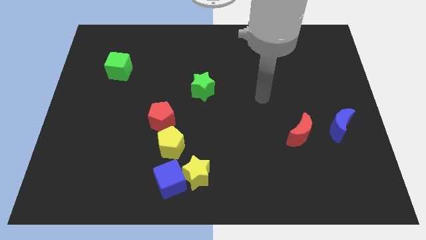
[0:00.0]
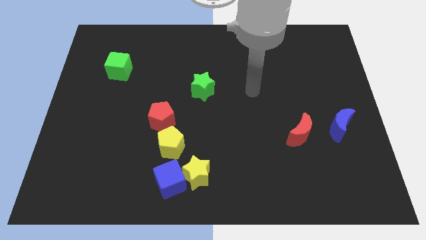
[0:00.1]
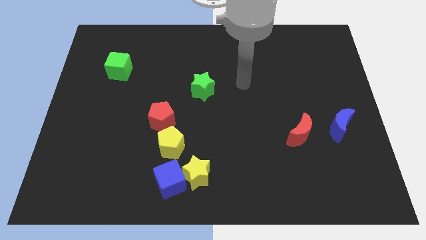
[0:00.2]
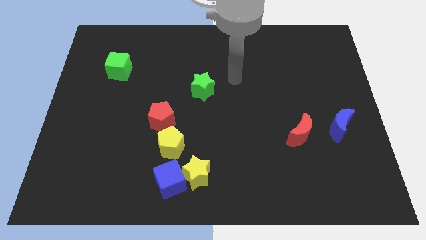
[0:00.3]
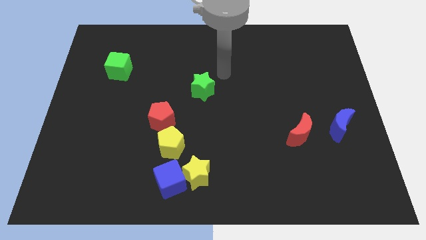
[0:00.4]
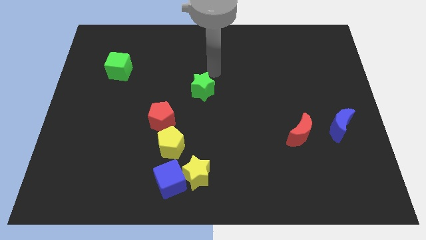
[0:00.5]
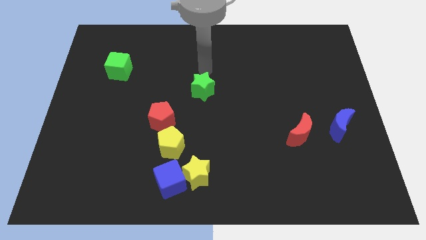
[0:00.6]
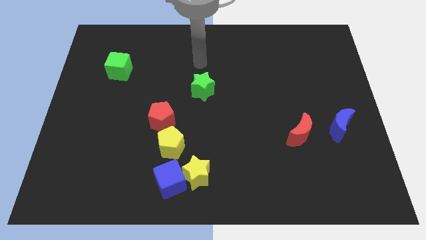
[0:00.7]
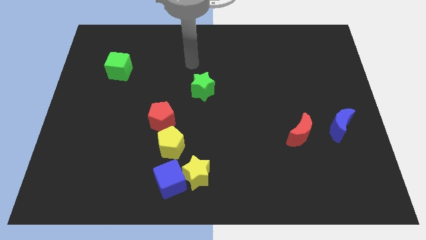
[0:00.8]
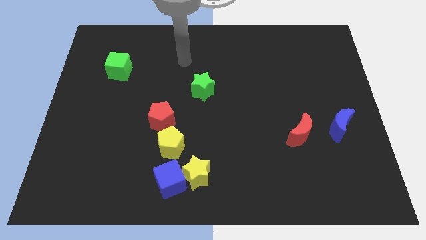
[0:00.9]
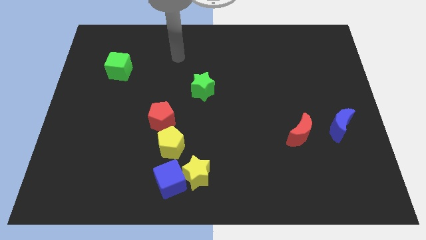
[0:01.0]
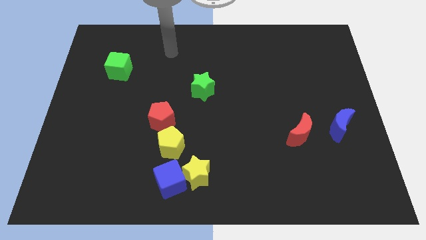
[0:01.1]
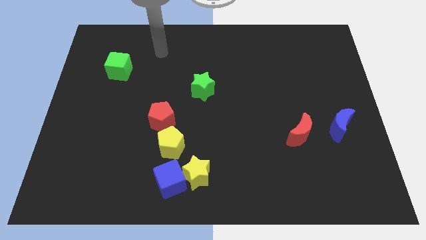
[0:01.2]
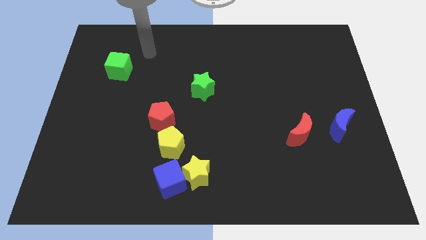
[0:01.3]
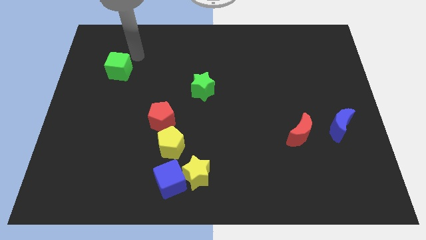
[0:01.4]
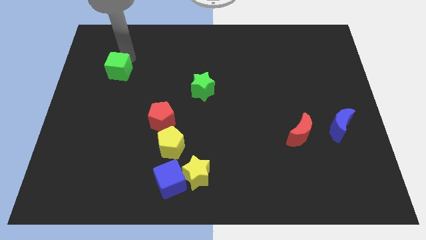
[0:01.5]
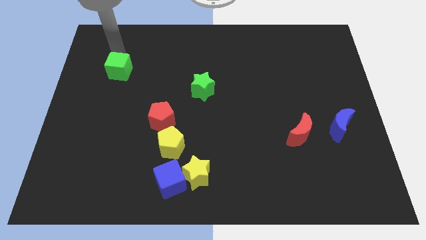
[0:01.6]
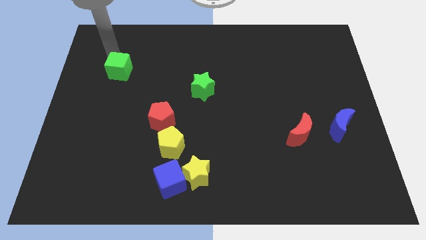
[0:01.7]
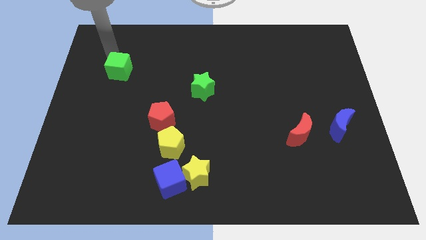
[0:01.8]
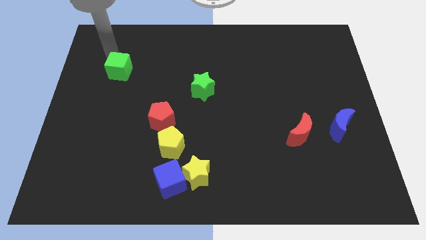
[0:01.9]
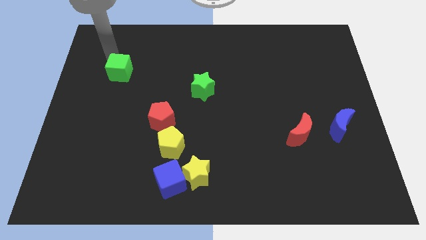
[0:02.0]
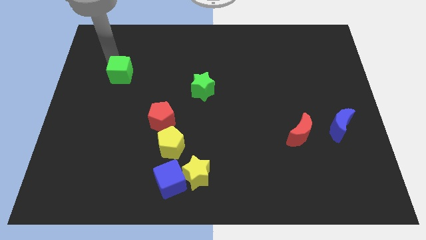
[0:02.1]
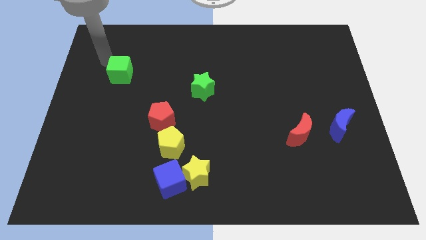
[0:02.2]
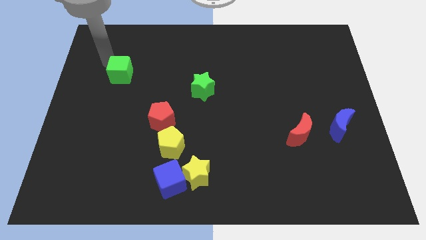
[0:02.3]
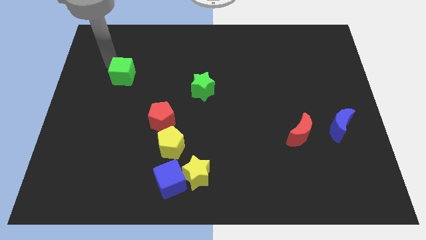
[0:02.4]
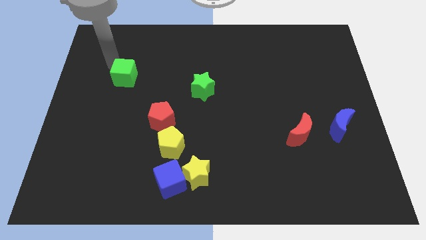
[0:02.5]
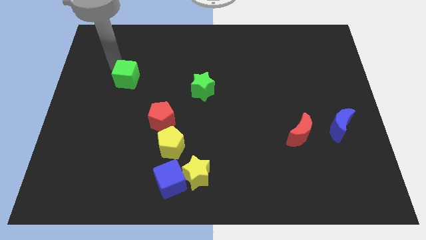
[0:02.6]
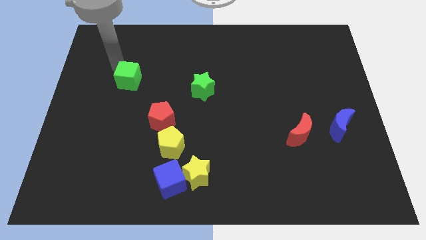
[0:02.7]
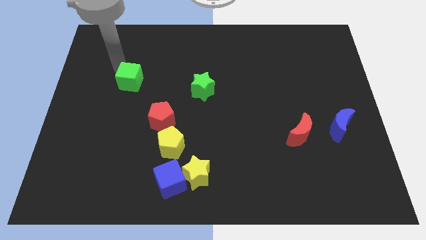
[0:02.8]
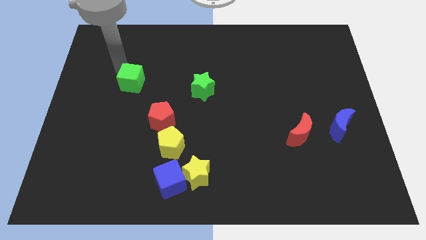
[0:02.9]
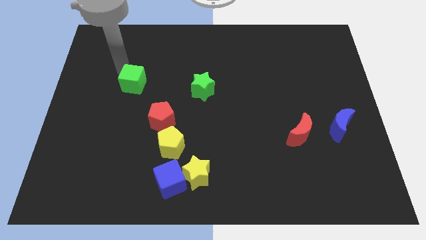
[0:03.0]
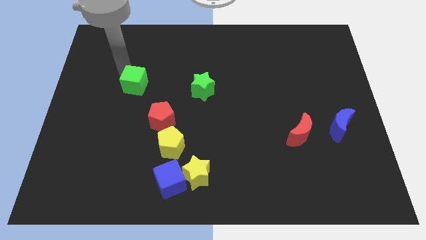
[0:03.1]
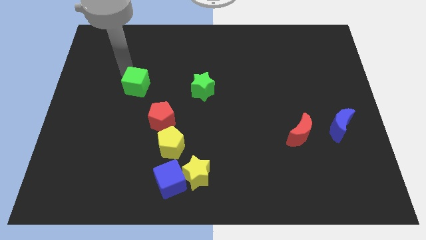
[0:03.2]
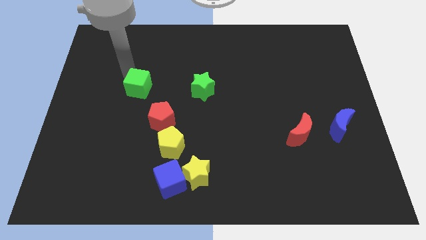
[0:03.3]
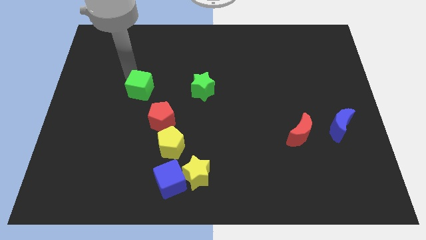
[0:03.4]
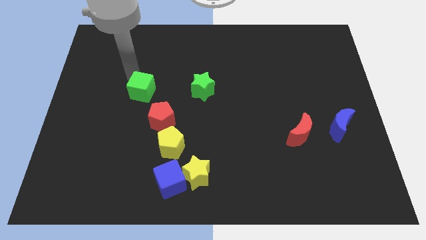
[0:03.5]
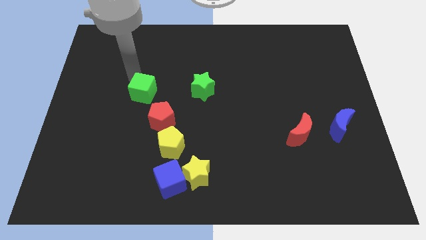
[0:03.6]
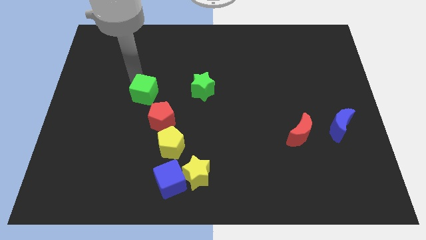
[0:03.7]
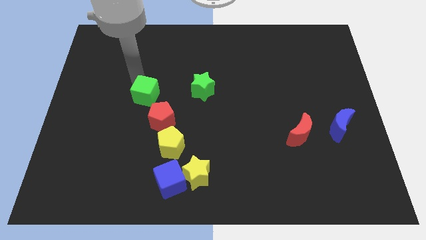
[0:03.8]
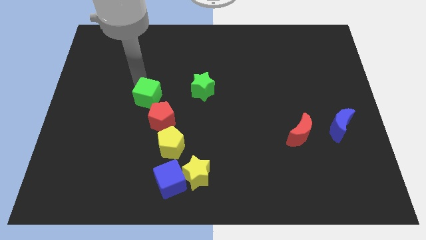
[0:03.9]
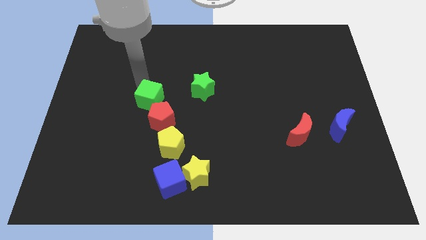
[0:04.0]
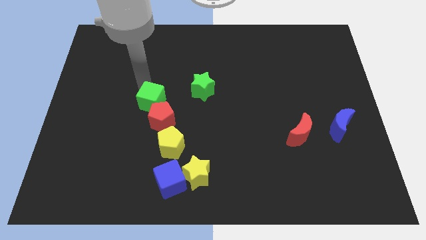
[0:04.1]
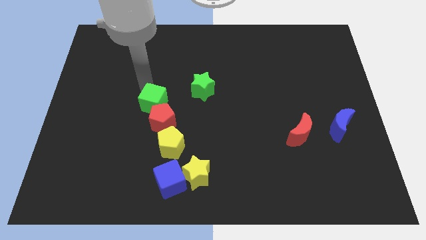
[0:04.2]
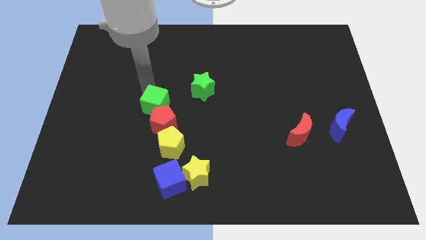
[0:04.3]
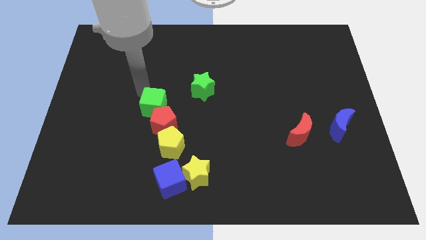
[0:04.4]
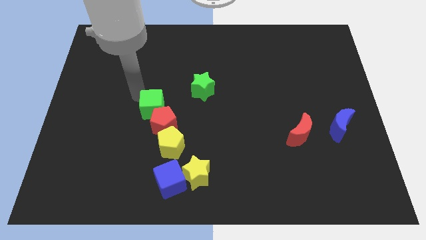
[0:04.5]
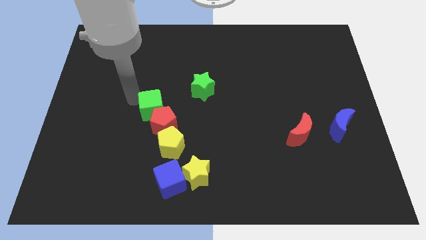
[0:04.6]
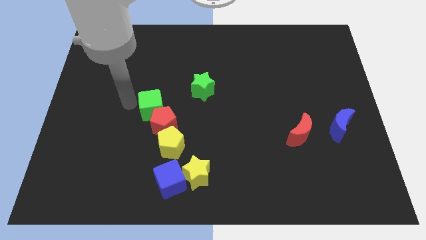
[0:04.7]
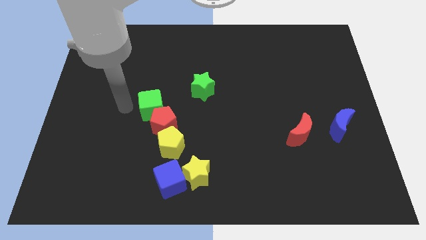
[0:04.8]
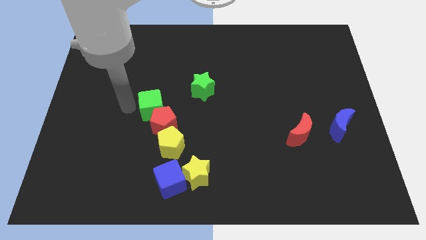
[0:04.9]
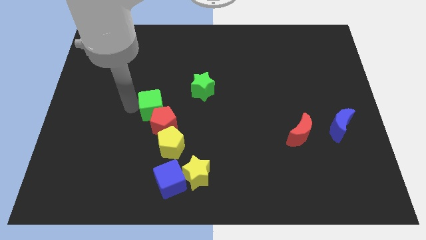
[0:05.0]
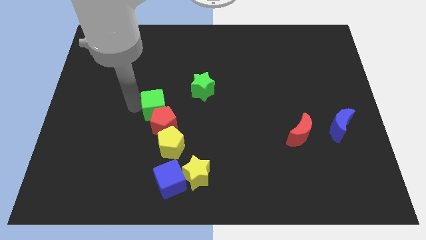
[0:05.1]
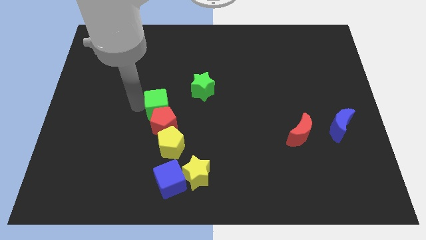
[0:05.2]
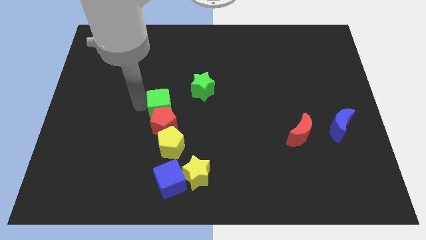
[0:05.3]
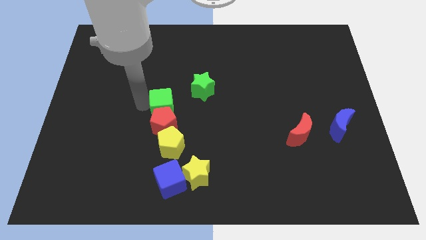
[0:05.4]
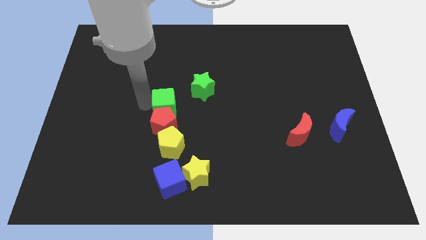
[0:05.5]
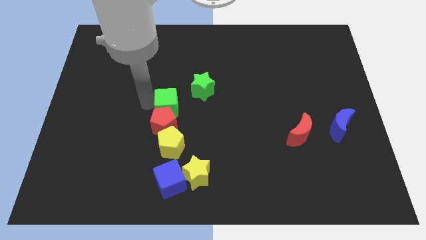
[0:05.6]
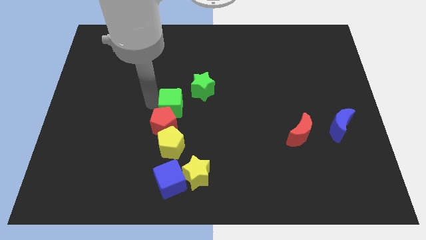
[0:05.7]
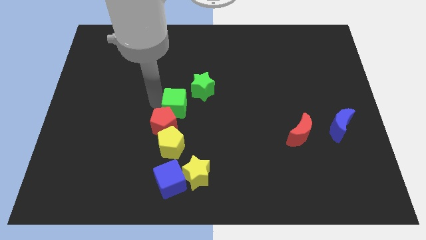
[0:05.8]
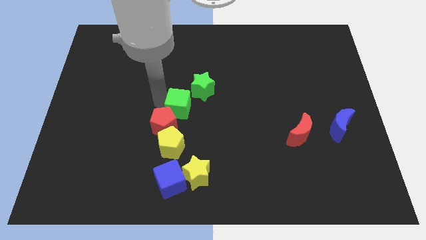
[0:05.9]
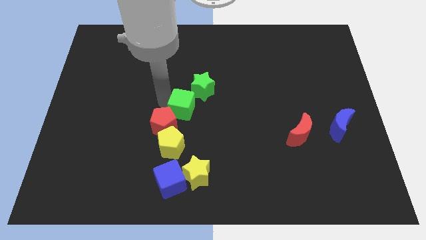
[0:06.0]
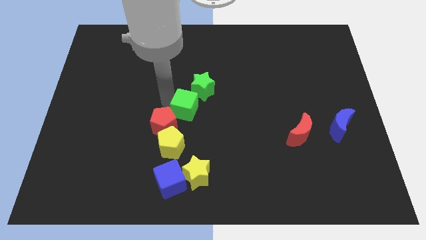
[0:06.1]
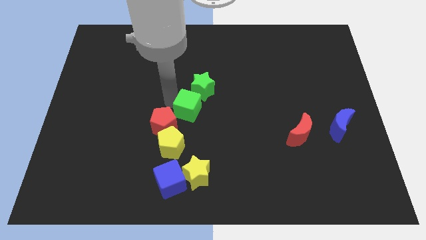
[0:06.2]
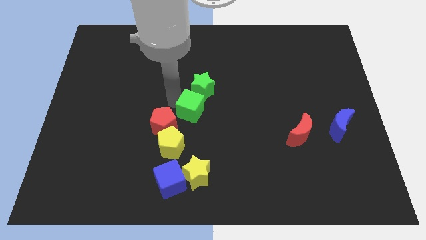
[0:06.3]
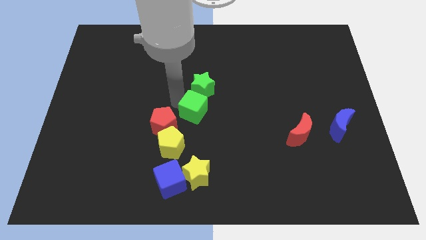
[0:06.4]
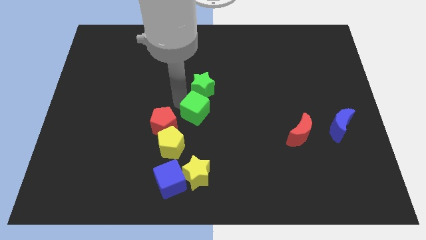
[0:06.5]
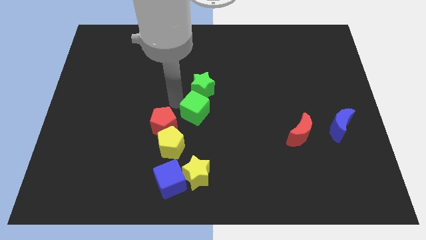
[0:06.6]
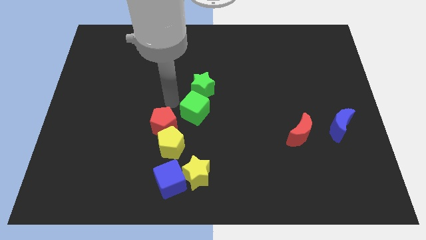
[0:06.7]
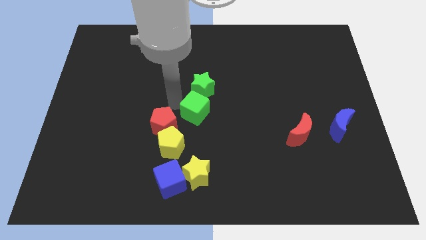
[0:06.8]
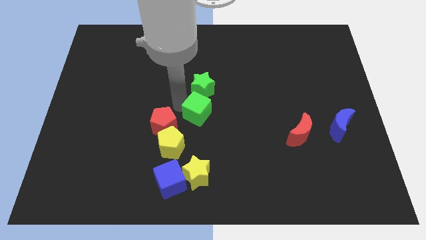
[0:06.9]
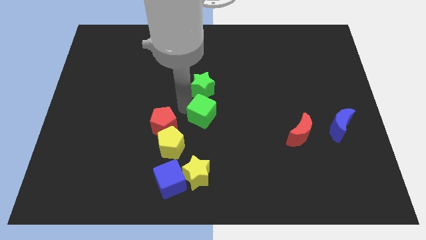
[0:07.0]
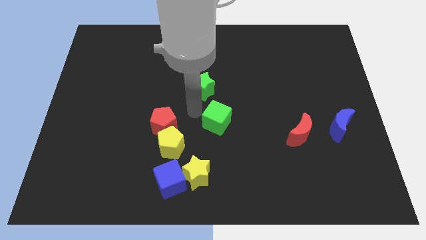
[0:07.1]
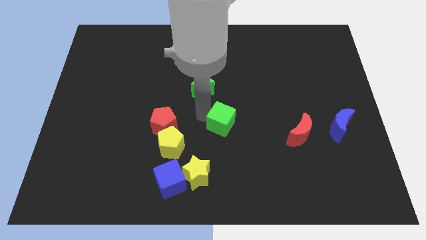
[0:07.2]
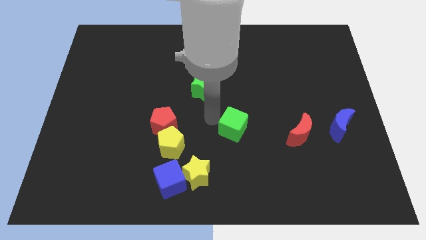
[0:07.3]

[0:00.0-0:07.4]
slide the green cube just left of the red moon

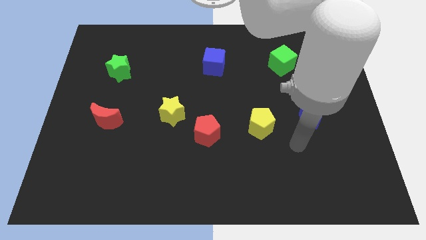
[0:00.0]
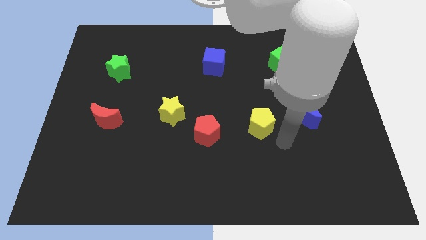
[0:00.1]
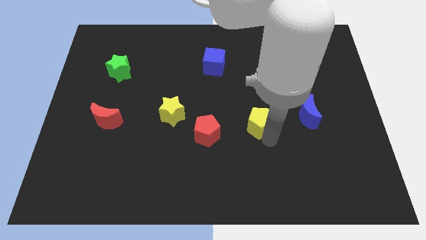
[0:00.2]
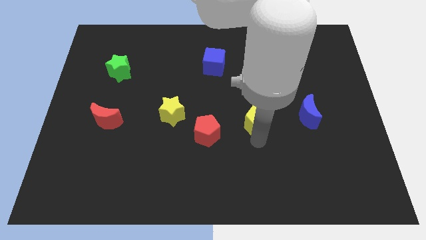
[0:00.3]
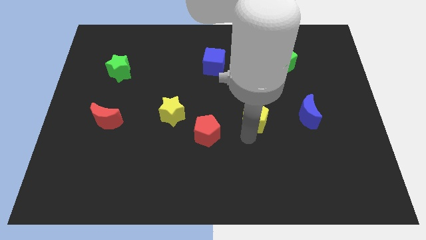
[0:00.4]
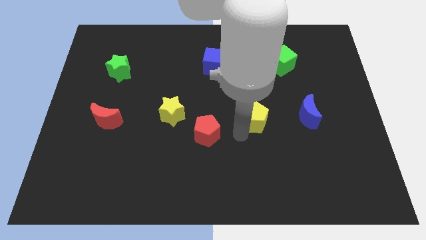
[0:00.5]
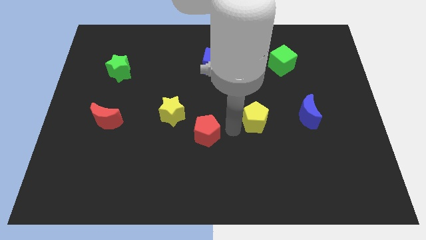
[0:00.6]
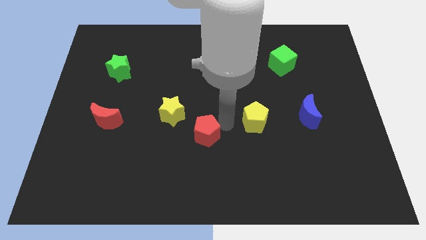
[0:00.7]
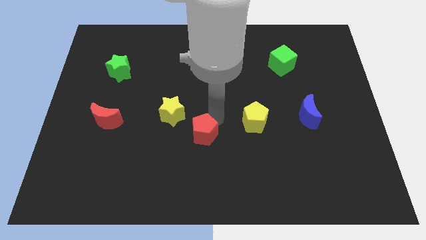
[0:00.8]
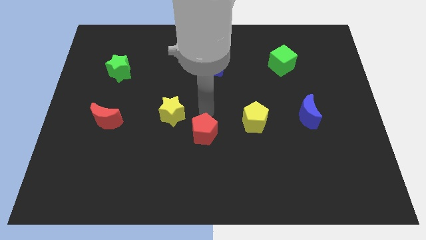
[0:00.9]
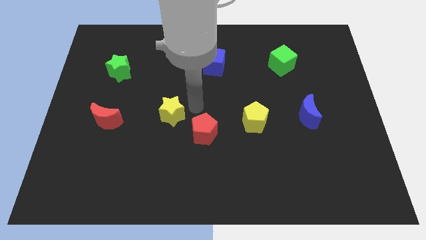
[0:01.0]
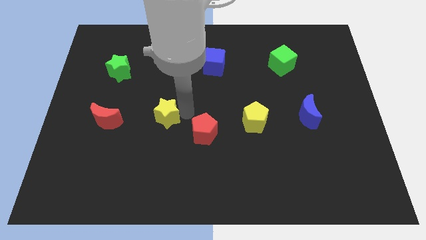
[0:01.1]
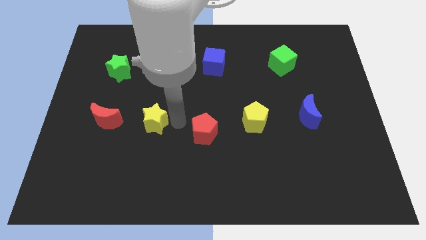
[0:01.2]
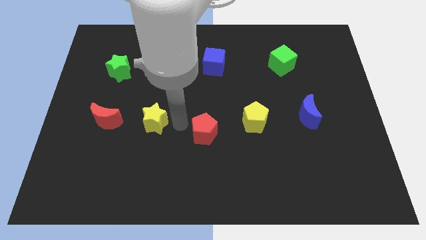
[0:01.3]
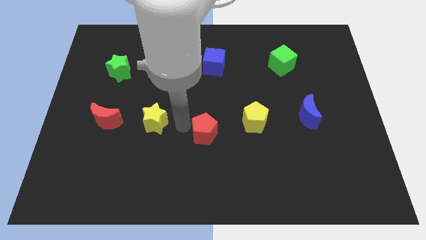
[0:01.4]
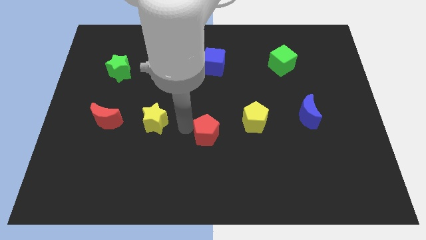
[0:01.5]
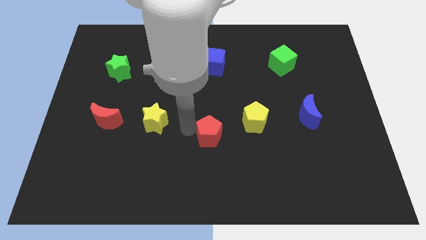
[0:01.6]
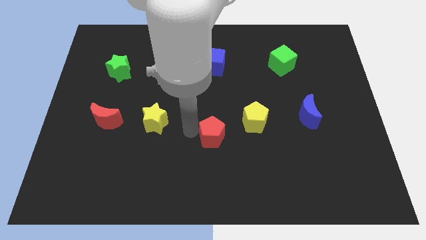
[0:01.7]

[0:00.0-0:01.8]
push the red pentagon to the bottom left of the yellow pentagon
